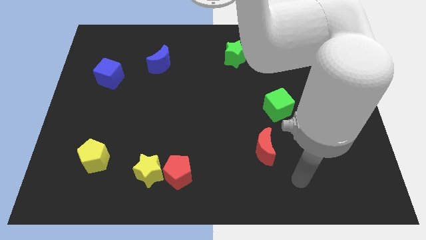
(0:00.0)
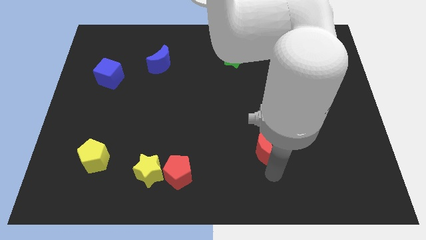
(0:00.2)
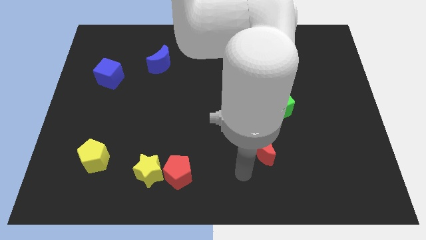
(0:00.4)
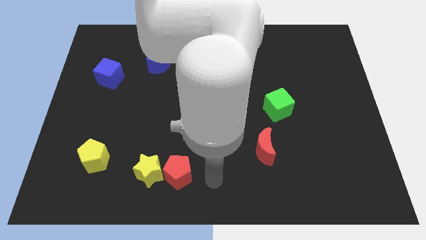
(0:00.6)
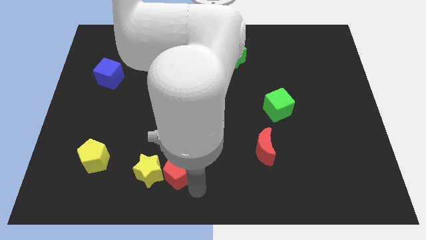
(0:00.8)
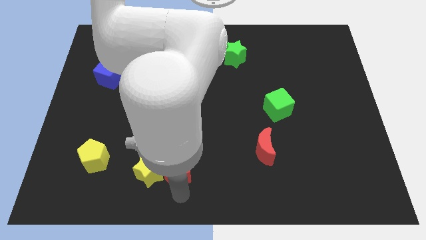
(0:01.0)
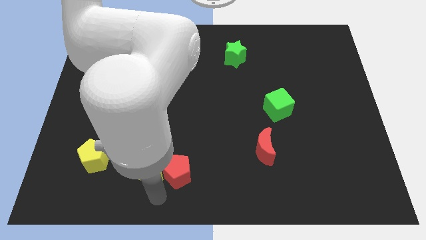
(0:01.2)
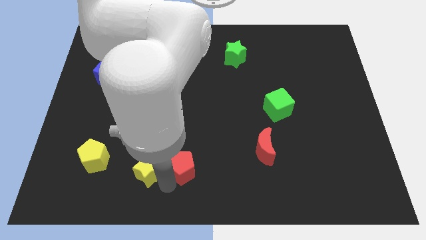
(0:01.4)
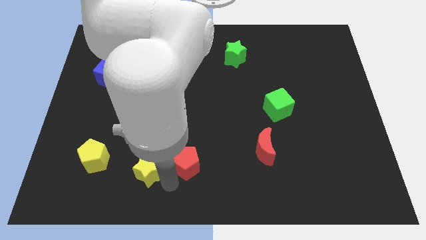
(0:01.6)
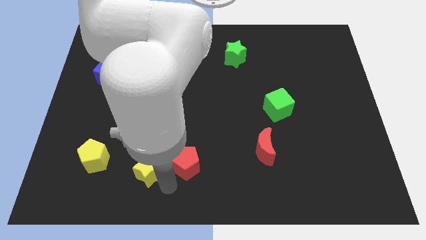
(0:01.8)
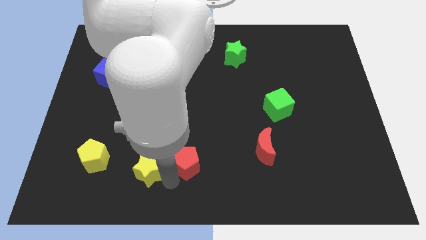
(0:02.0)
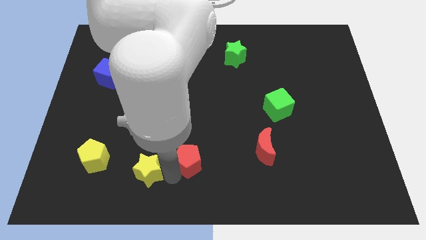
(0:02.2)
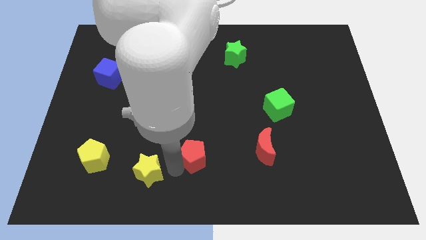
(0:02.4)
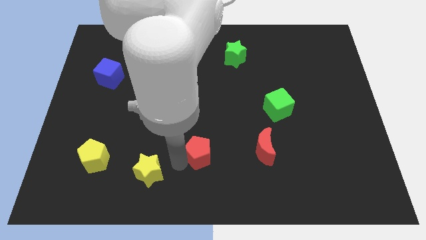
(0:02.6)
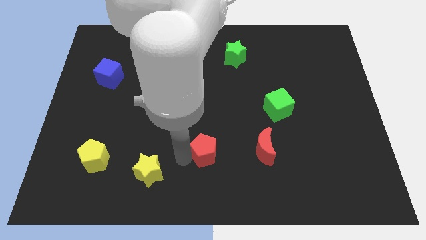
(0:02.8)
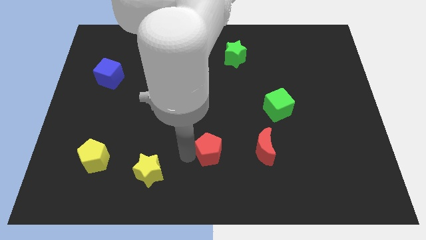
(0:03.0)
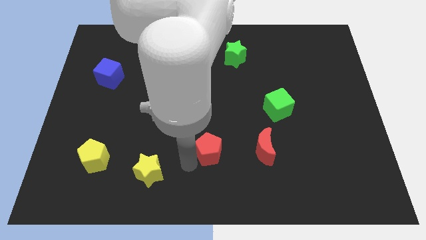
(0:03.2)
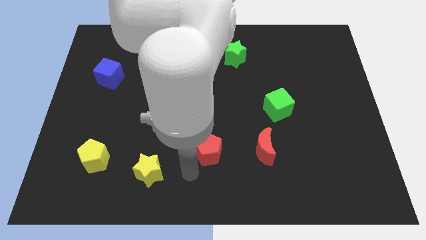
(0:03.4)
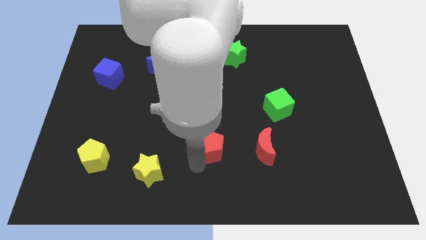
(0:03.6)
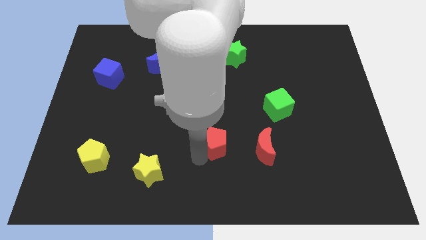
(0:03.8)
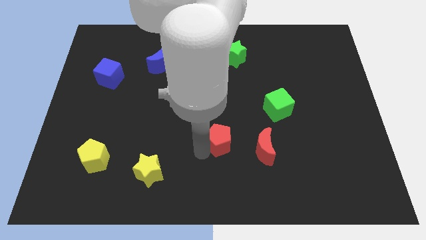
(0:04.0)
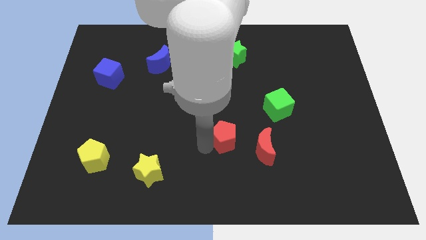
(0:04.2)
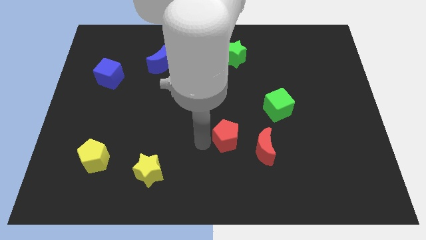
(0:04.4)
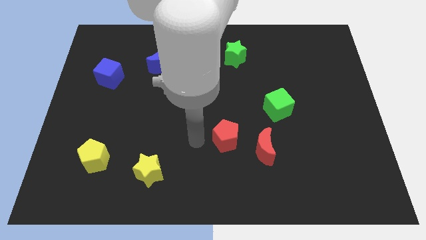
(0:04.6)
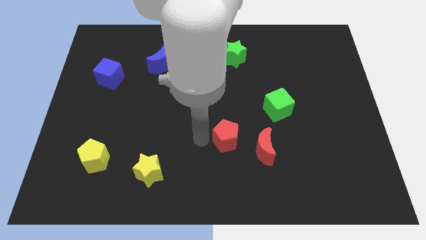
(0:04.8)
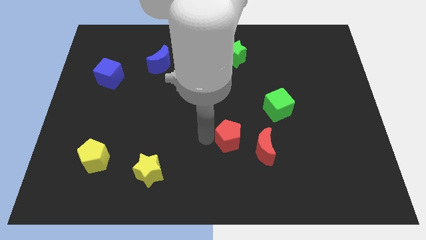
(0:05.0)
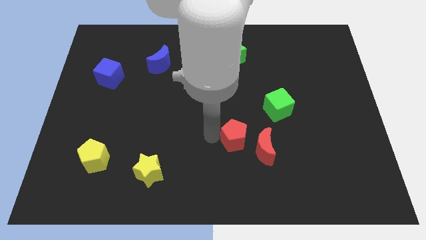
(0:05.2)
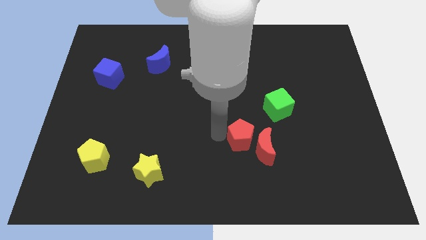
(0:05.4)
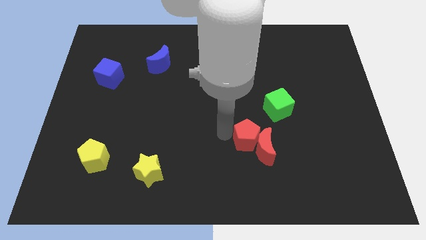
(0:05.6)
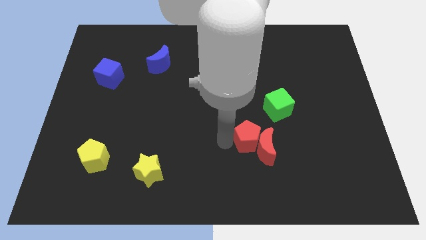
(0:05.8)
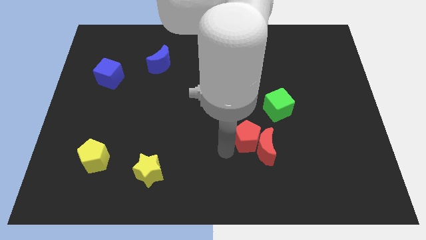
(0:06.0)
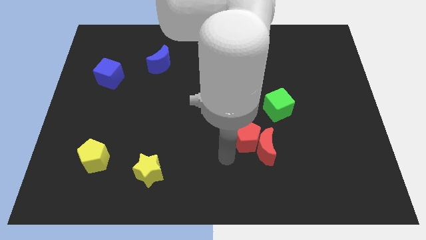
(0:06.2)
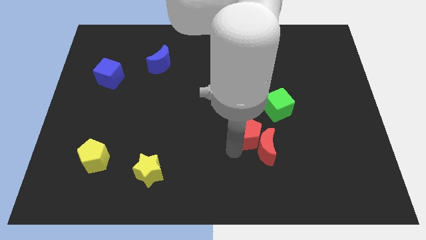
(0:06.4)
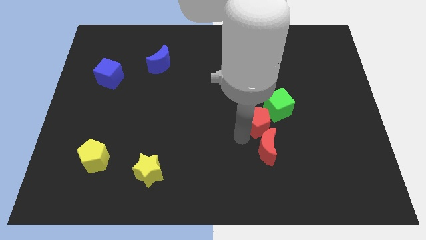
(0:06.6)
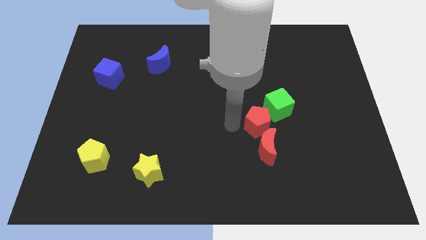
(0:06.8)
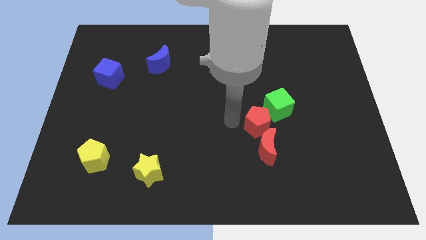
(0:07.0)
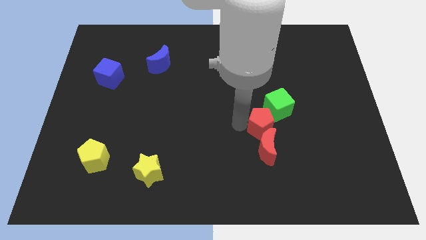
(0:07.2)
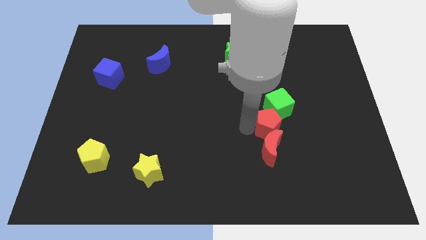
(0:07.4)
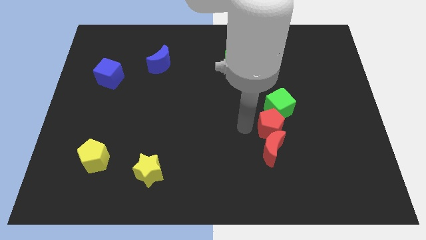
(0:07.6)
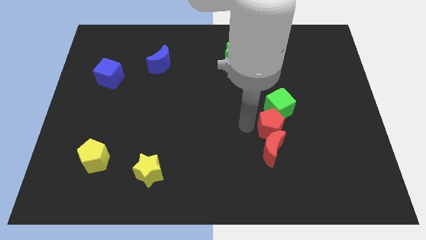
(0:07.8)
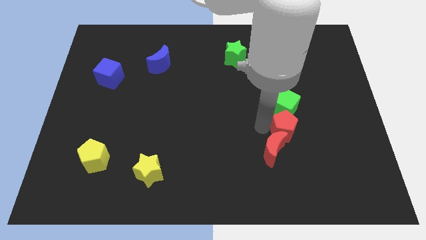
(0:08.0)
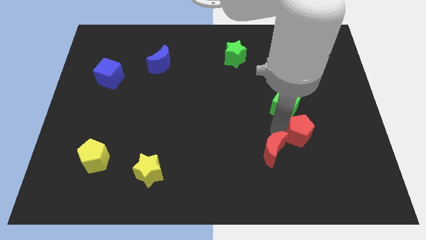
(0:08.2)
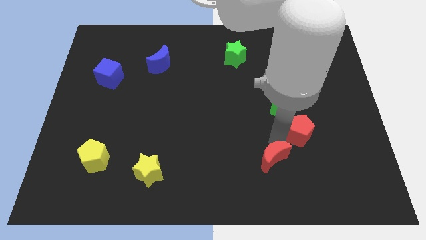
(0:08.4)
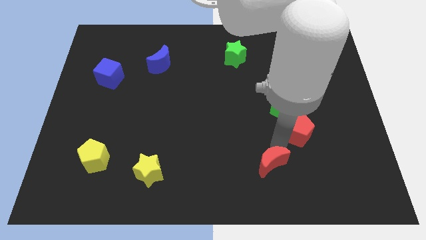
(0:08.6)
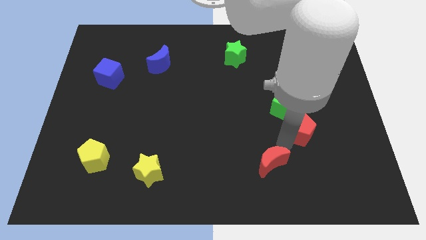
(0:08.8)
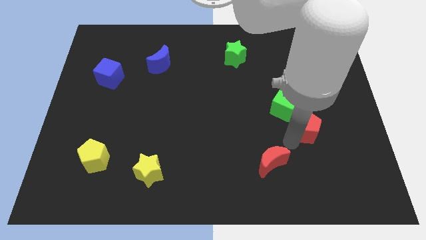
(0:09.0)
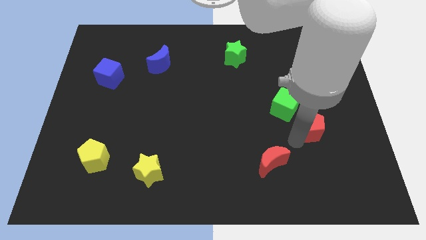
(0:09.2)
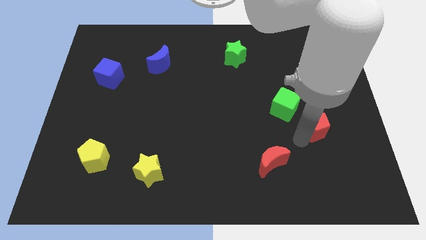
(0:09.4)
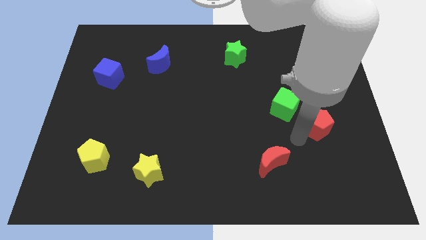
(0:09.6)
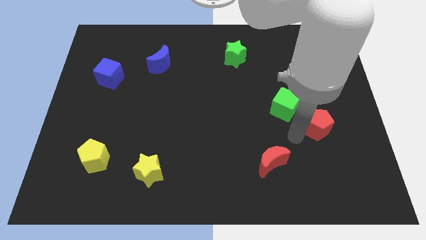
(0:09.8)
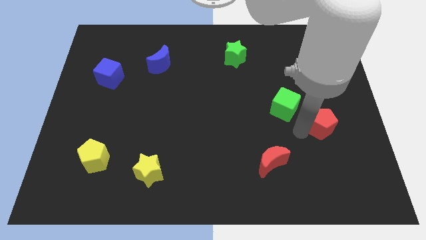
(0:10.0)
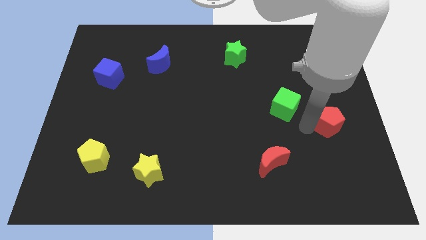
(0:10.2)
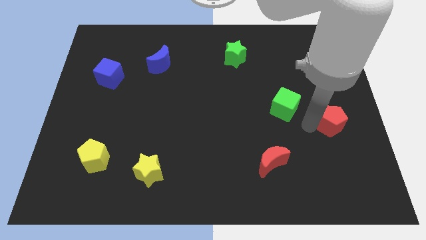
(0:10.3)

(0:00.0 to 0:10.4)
slide the red pentagon to the center right

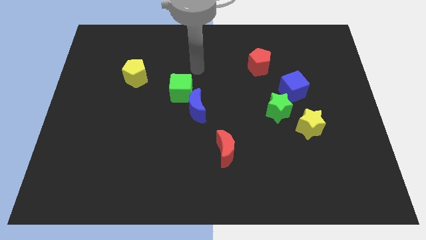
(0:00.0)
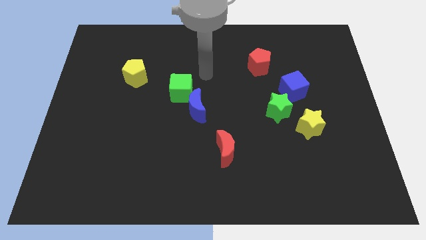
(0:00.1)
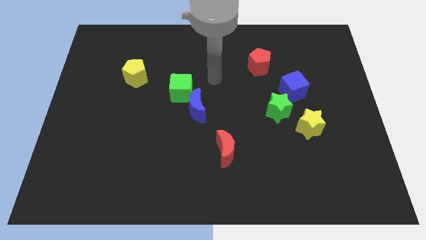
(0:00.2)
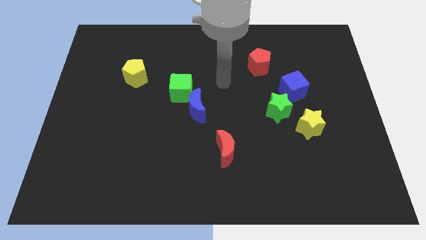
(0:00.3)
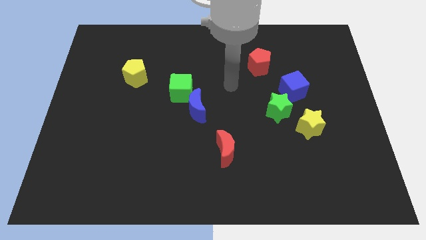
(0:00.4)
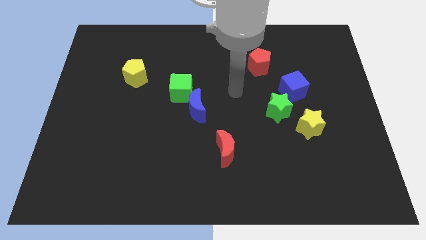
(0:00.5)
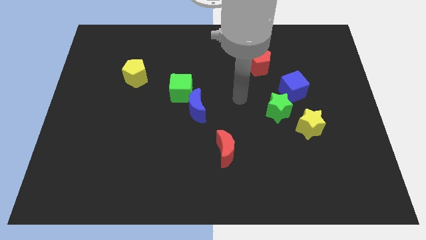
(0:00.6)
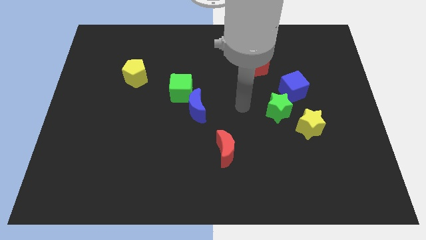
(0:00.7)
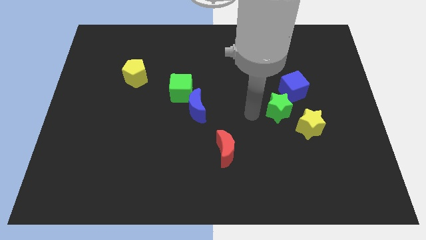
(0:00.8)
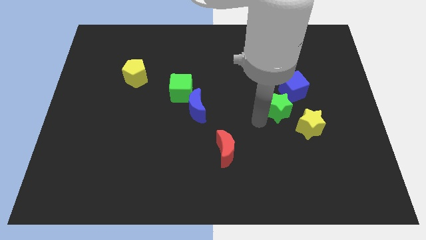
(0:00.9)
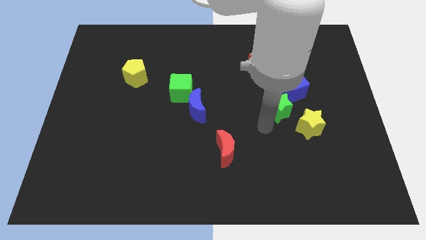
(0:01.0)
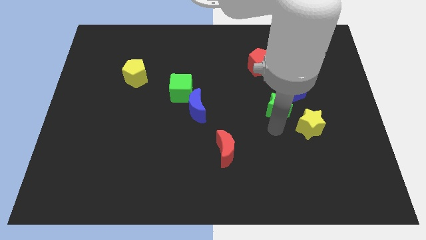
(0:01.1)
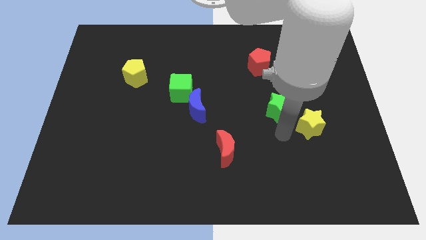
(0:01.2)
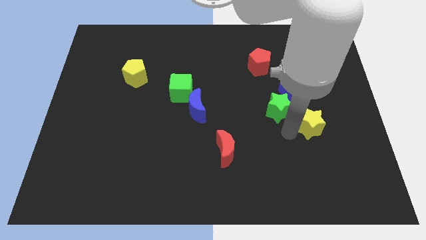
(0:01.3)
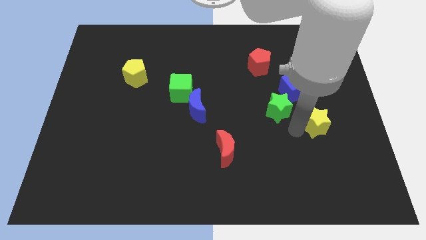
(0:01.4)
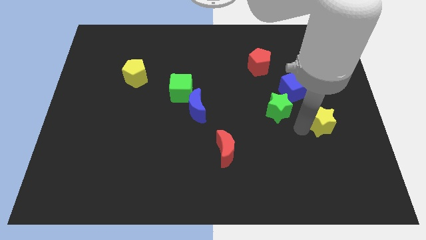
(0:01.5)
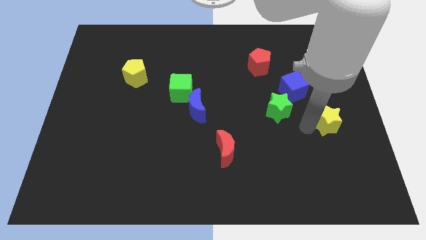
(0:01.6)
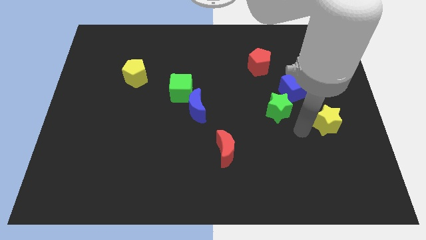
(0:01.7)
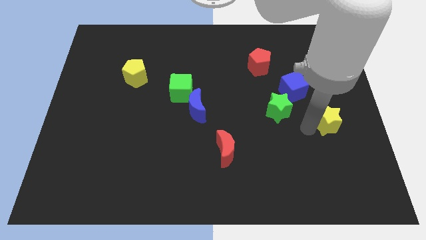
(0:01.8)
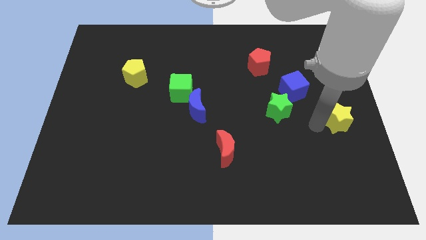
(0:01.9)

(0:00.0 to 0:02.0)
slide the yellow star to the right side
